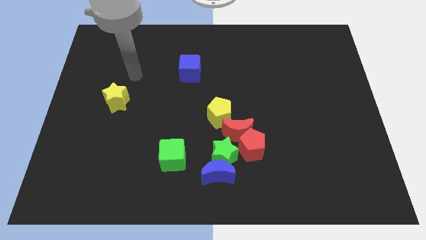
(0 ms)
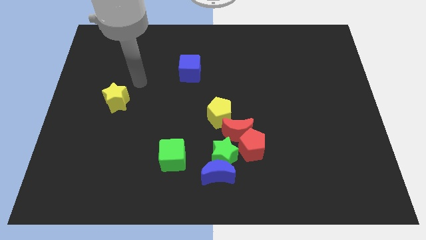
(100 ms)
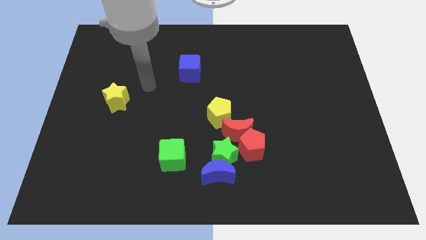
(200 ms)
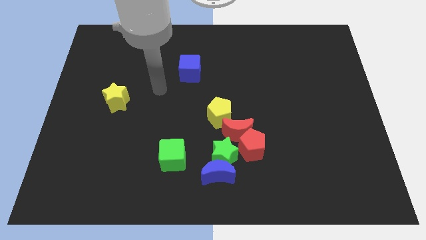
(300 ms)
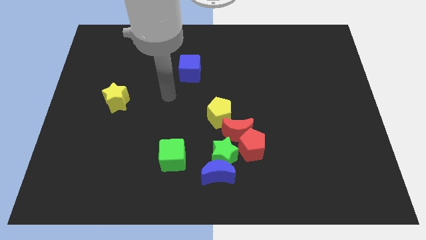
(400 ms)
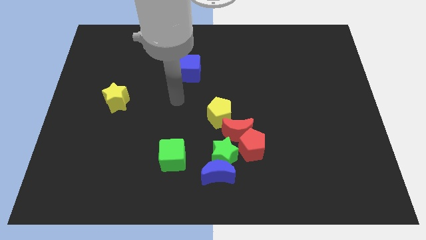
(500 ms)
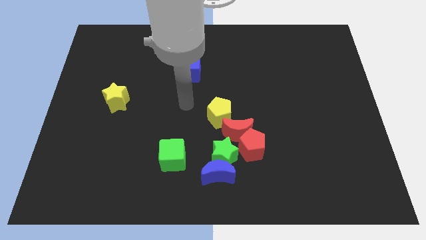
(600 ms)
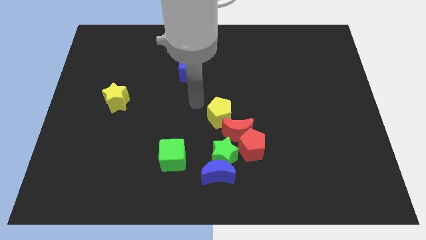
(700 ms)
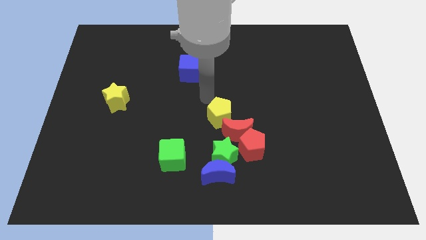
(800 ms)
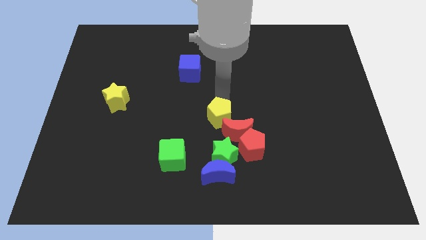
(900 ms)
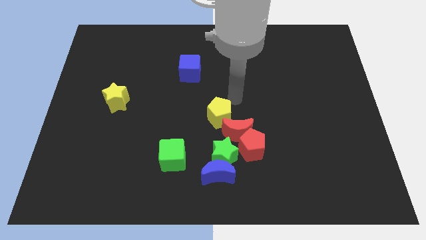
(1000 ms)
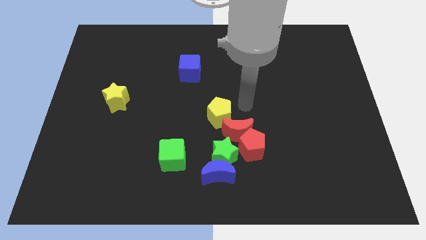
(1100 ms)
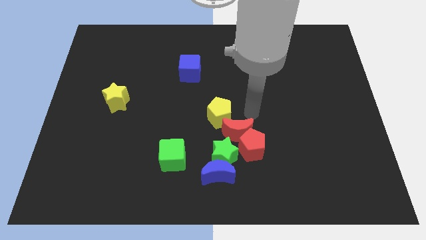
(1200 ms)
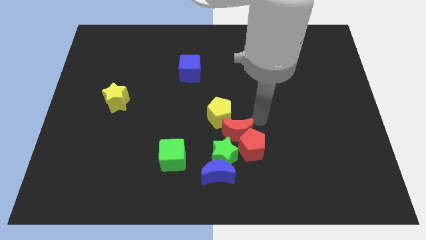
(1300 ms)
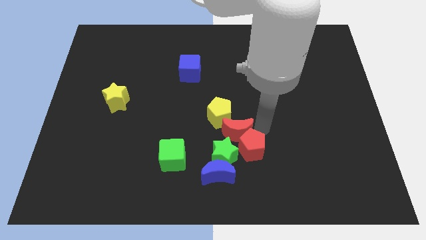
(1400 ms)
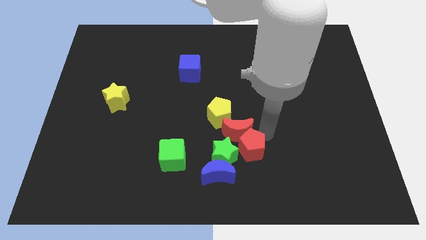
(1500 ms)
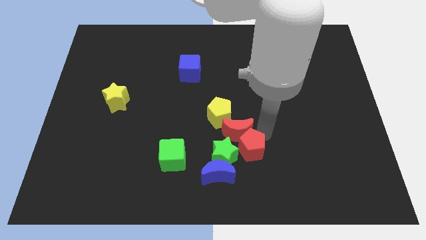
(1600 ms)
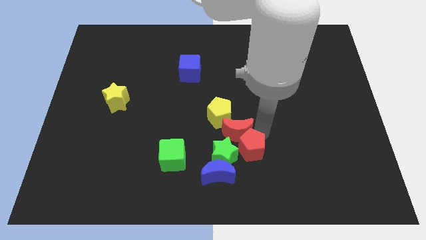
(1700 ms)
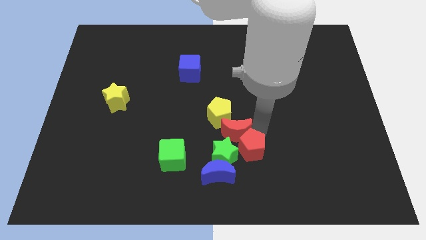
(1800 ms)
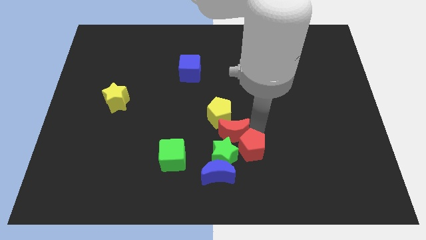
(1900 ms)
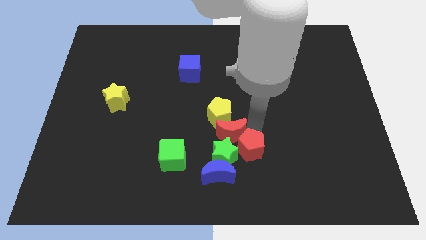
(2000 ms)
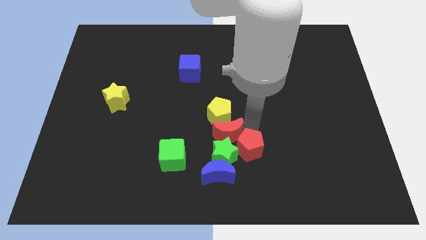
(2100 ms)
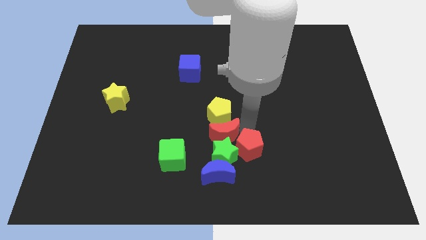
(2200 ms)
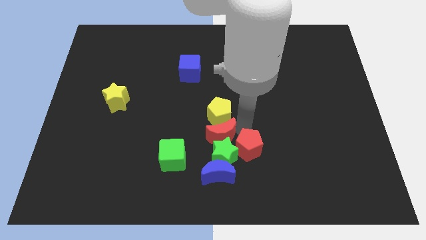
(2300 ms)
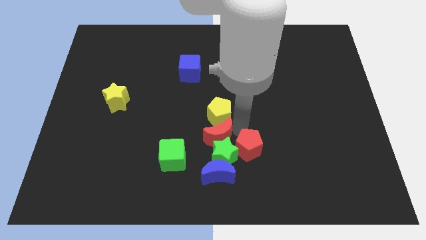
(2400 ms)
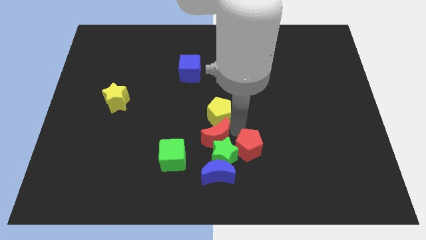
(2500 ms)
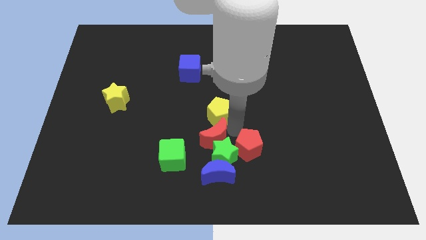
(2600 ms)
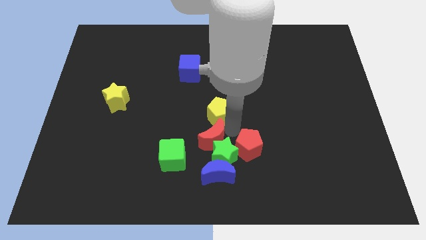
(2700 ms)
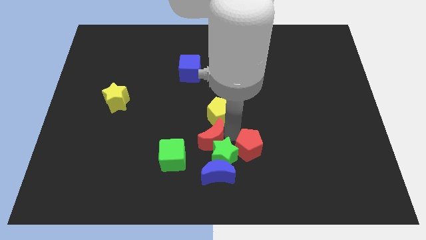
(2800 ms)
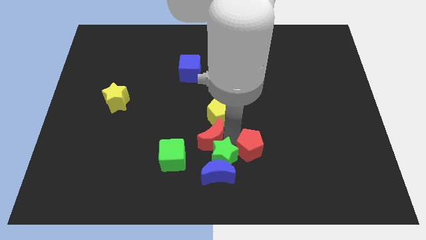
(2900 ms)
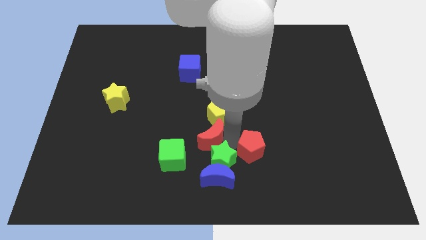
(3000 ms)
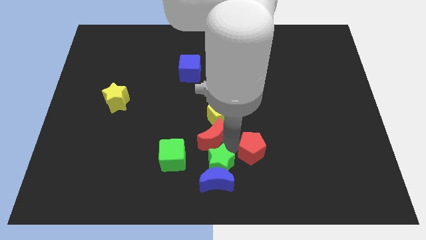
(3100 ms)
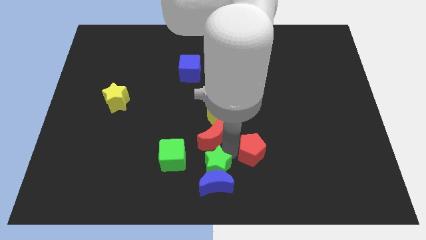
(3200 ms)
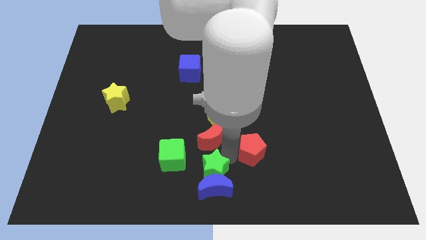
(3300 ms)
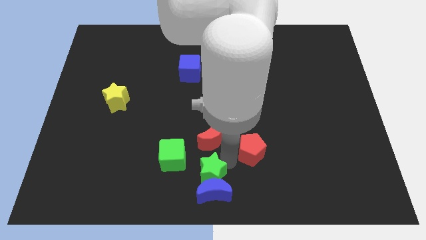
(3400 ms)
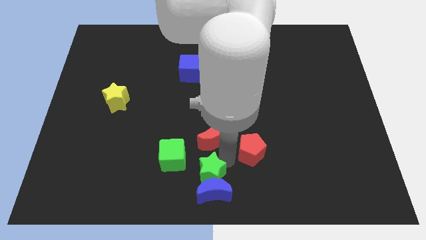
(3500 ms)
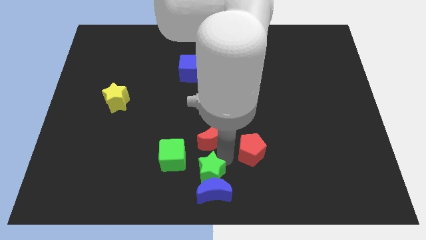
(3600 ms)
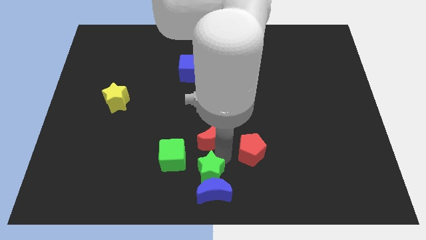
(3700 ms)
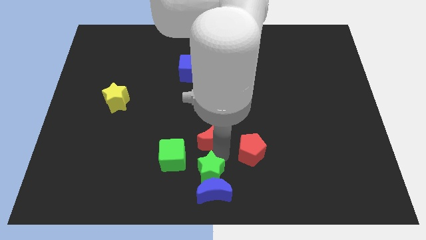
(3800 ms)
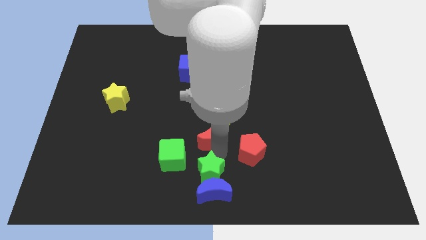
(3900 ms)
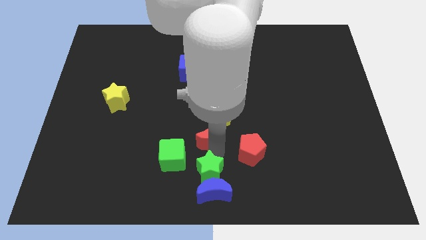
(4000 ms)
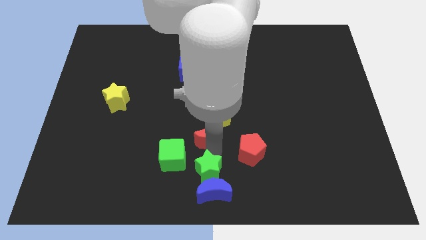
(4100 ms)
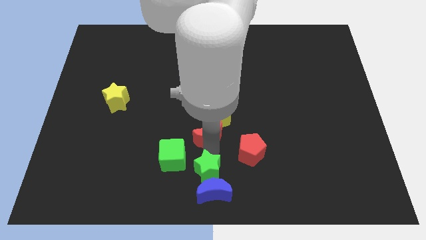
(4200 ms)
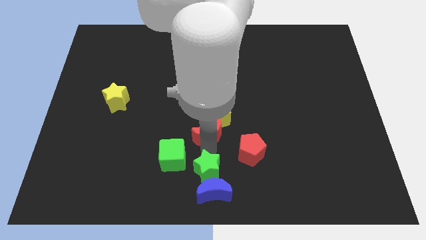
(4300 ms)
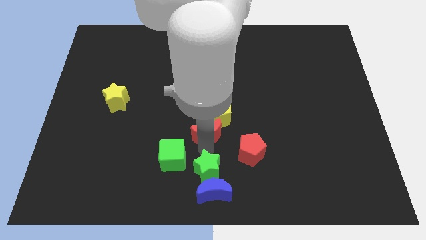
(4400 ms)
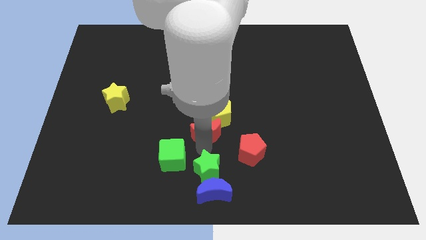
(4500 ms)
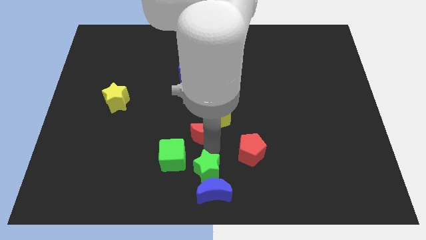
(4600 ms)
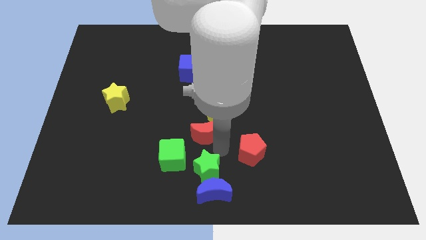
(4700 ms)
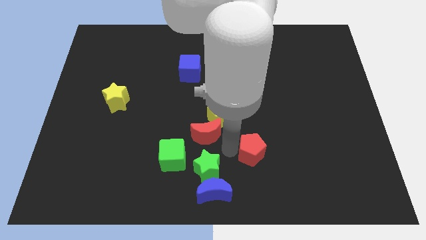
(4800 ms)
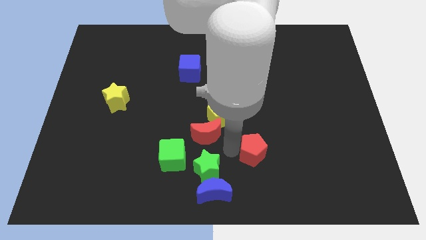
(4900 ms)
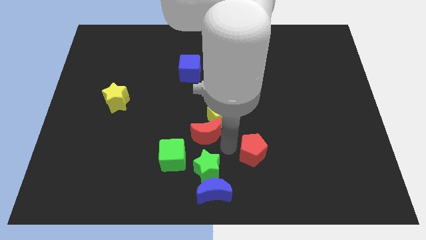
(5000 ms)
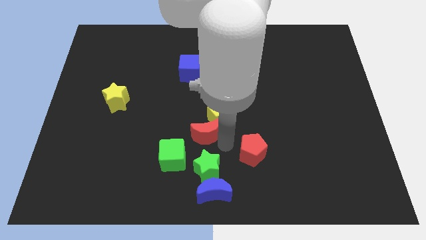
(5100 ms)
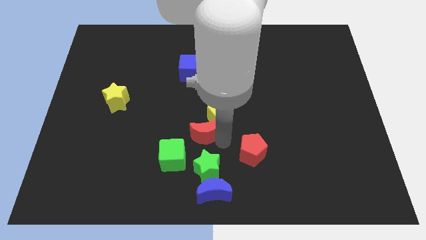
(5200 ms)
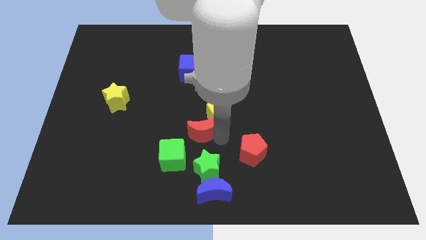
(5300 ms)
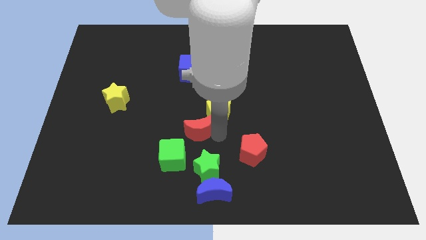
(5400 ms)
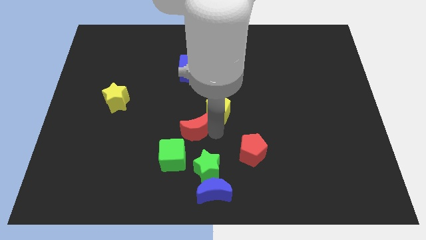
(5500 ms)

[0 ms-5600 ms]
push the red moon just left of the yellow pentagon

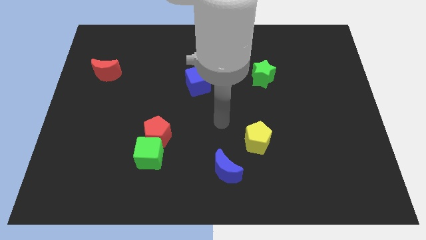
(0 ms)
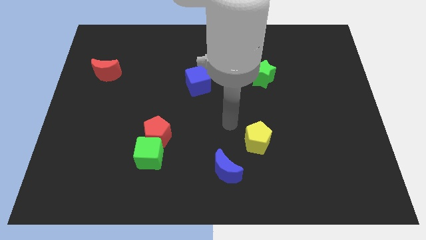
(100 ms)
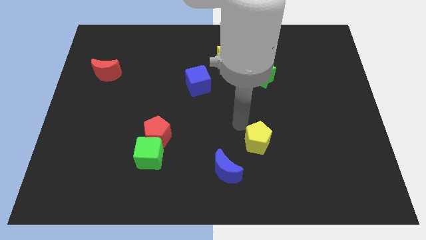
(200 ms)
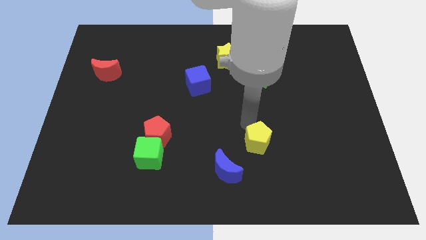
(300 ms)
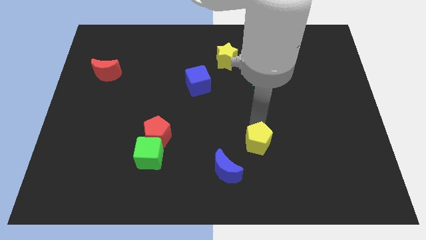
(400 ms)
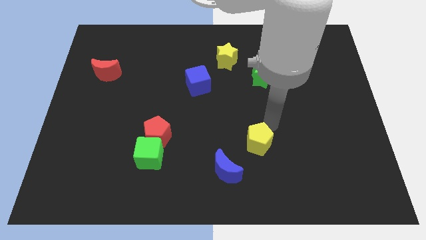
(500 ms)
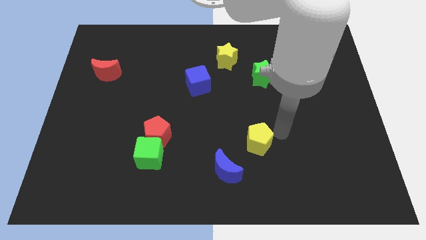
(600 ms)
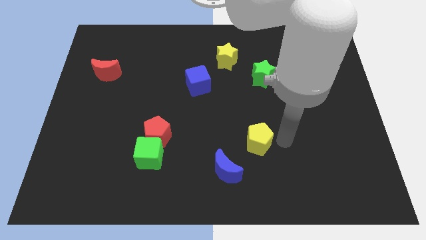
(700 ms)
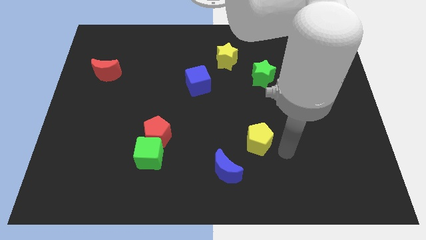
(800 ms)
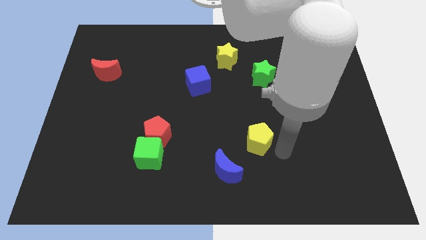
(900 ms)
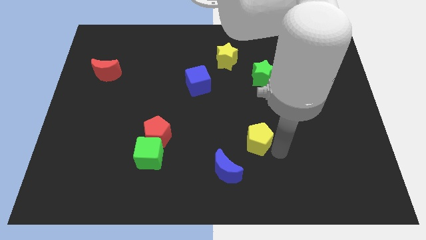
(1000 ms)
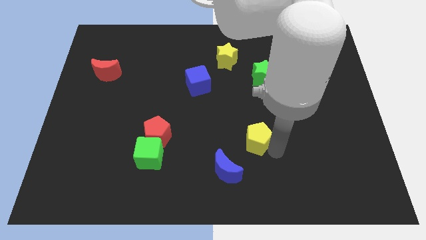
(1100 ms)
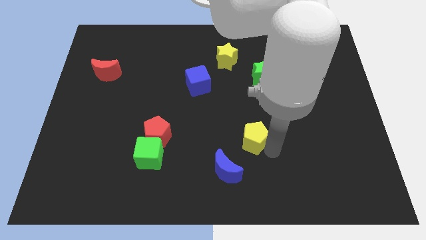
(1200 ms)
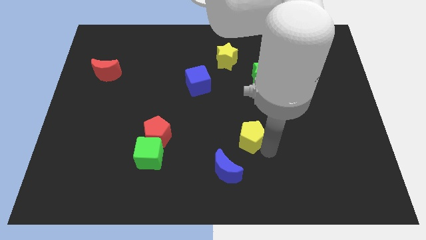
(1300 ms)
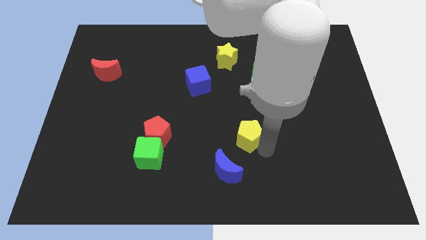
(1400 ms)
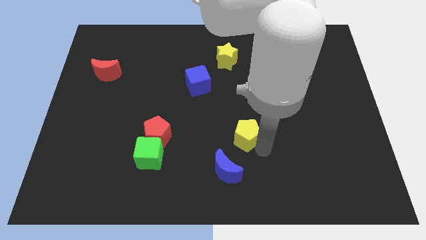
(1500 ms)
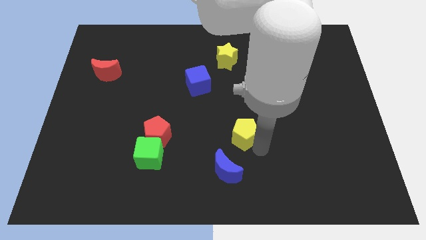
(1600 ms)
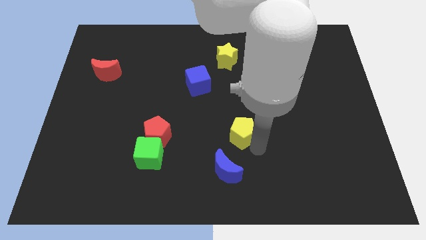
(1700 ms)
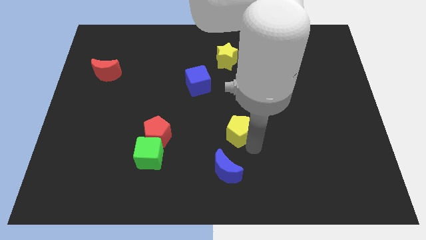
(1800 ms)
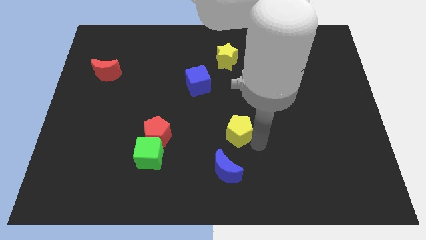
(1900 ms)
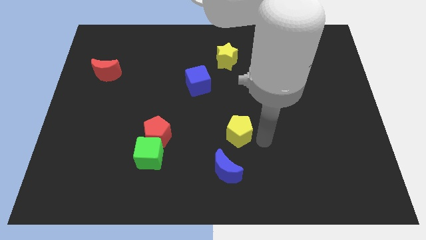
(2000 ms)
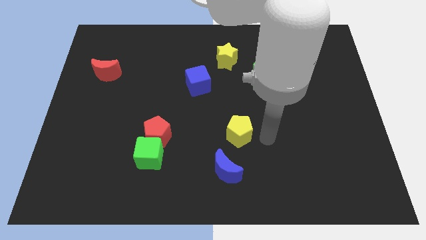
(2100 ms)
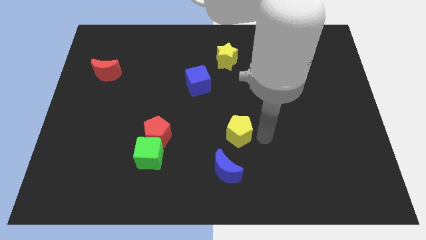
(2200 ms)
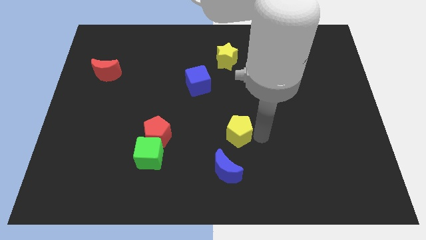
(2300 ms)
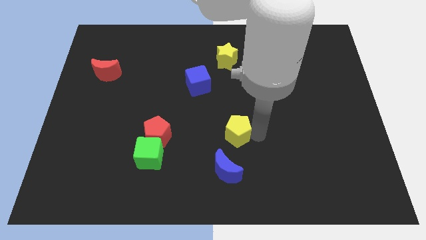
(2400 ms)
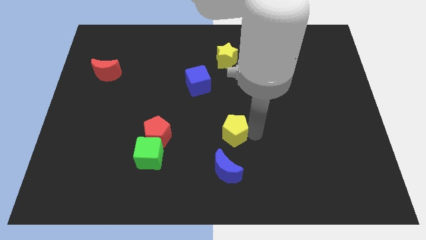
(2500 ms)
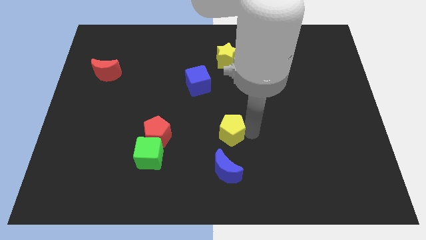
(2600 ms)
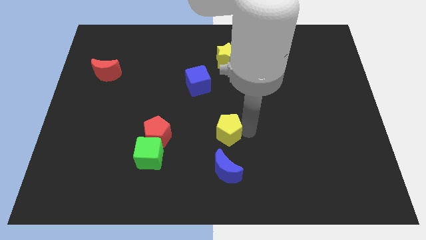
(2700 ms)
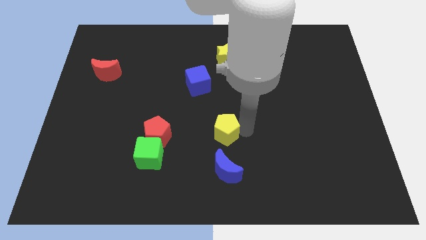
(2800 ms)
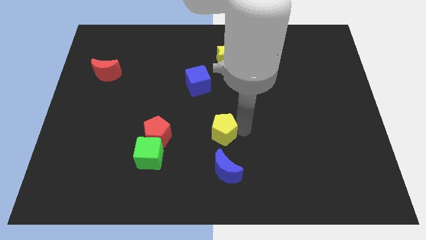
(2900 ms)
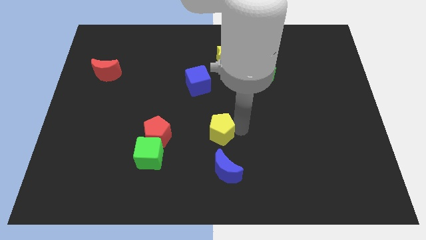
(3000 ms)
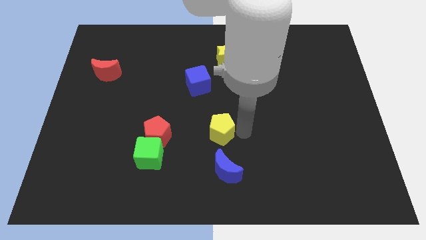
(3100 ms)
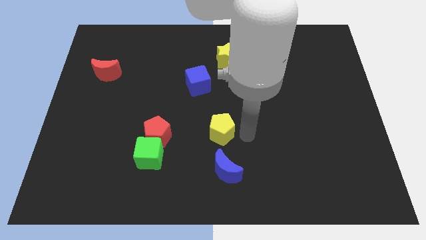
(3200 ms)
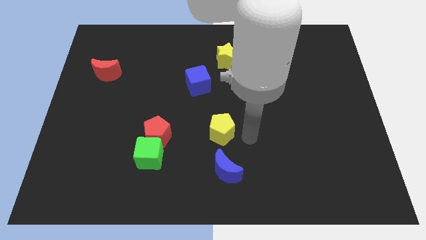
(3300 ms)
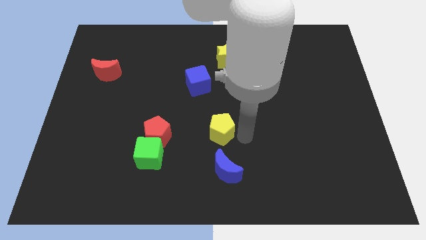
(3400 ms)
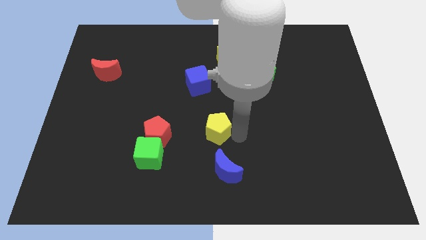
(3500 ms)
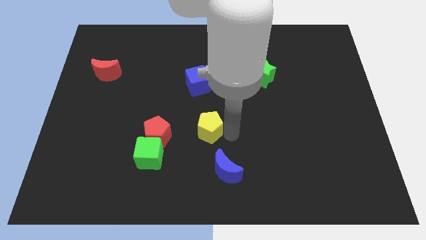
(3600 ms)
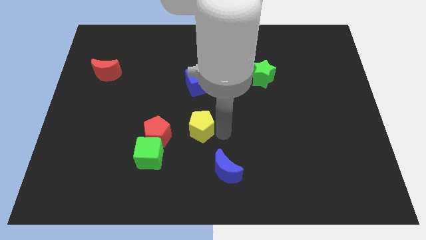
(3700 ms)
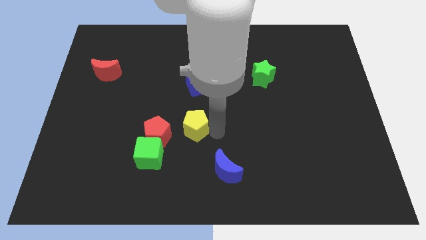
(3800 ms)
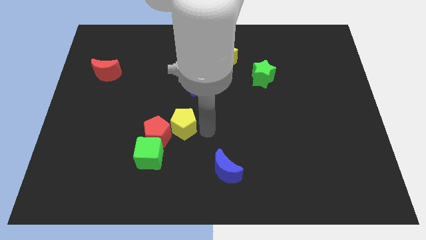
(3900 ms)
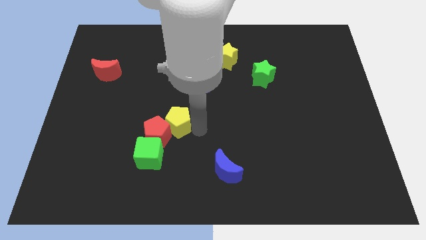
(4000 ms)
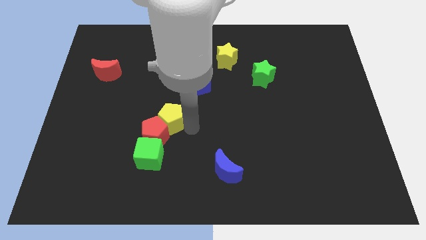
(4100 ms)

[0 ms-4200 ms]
put the yellow pentagon to the top of the green cube
